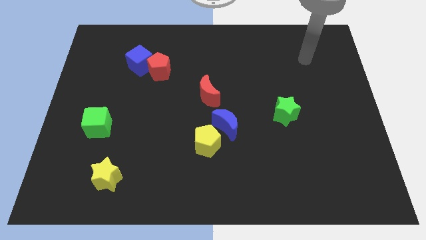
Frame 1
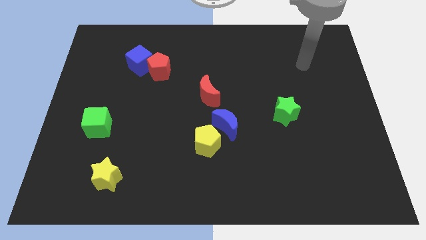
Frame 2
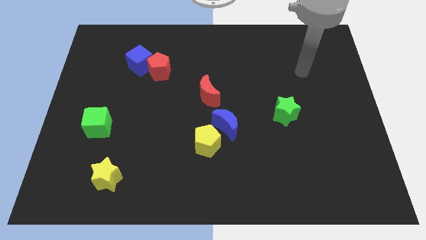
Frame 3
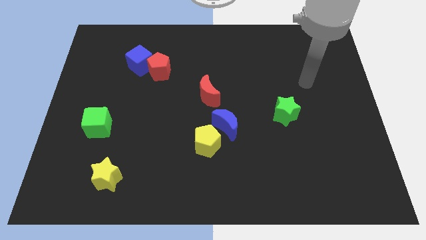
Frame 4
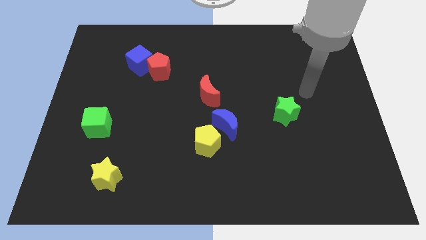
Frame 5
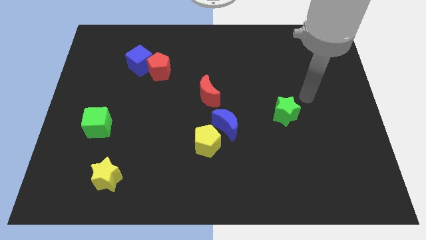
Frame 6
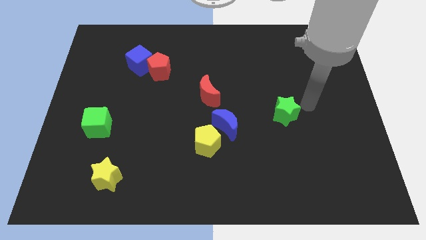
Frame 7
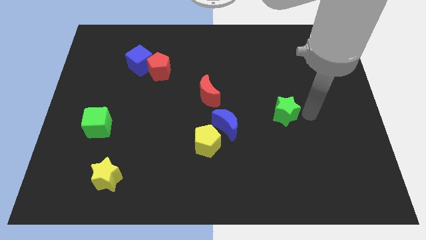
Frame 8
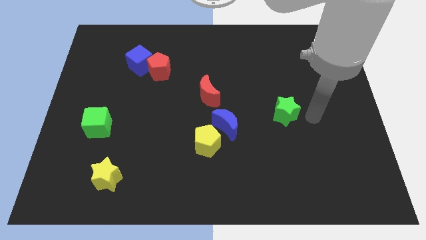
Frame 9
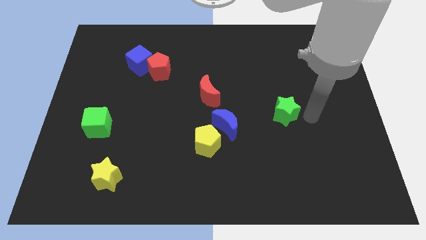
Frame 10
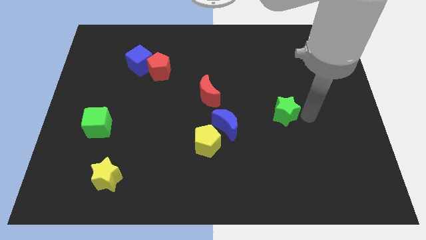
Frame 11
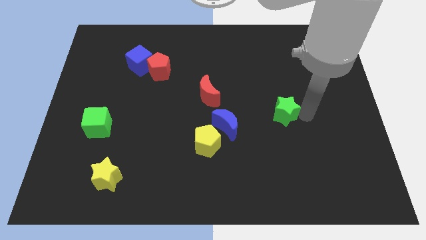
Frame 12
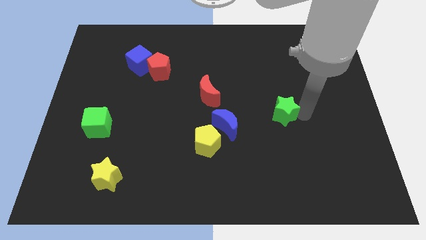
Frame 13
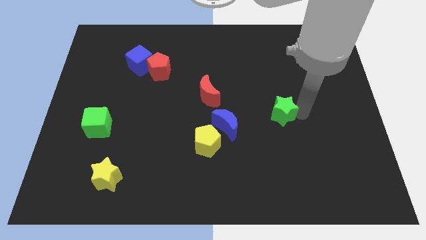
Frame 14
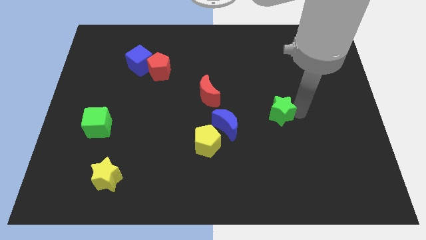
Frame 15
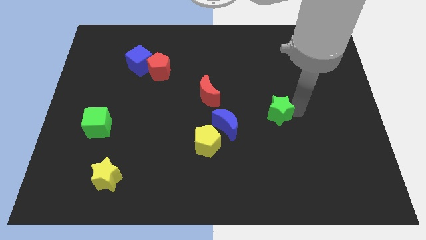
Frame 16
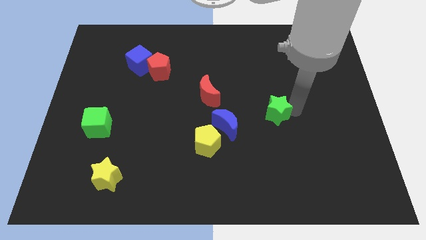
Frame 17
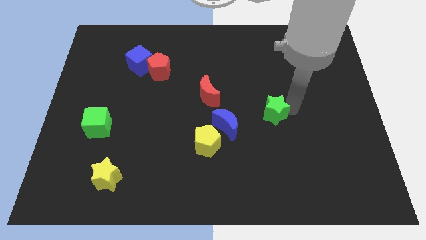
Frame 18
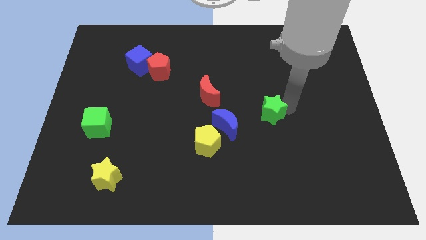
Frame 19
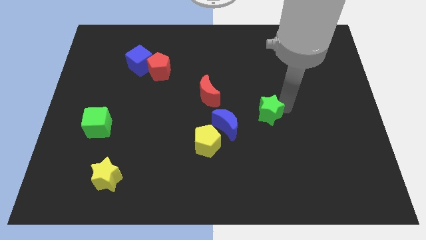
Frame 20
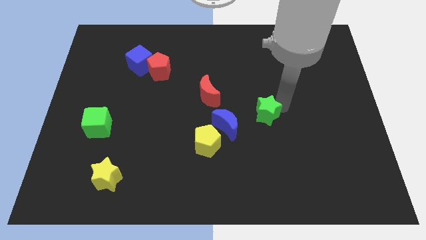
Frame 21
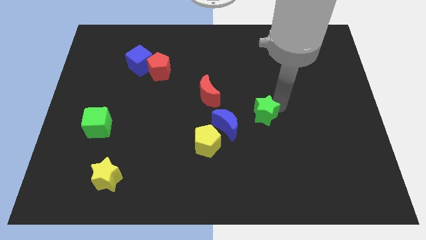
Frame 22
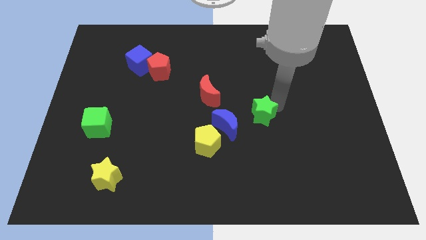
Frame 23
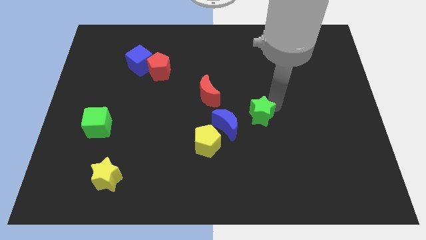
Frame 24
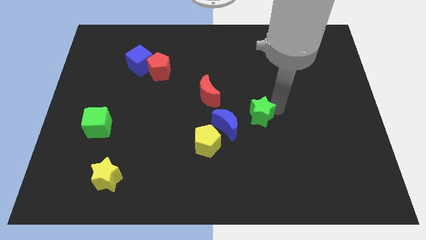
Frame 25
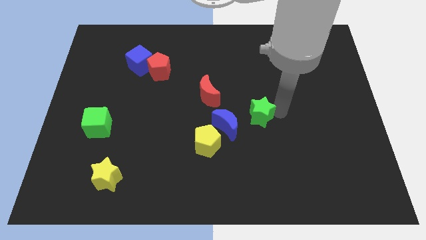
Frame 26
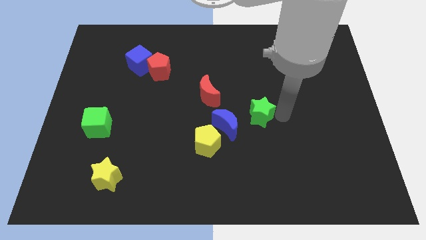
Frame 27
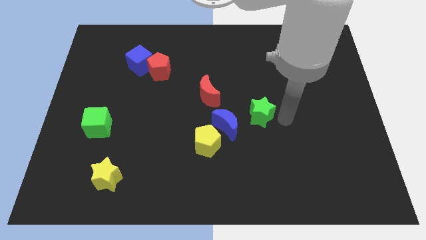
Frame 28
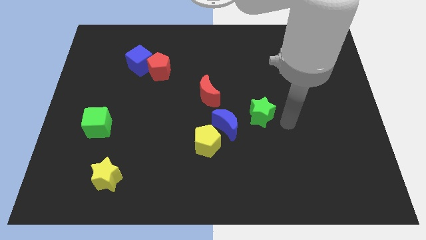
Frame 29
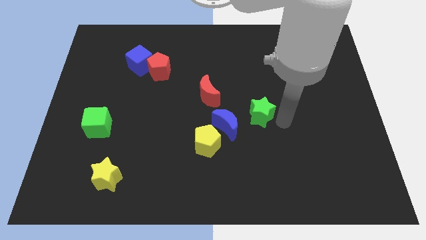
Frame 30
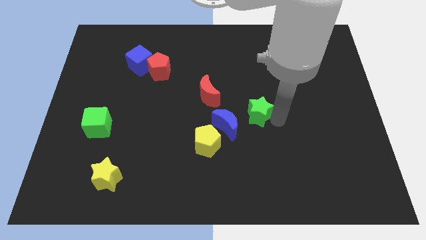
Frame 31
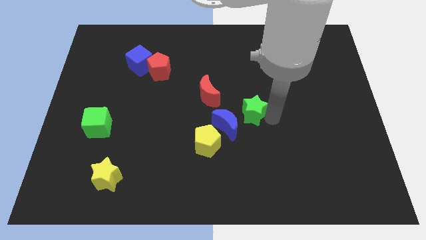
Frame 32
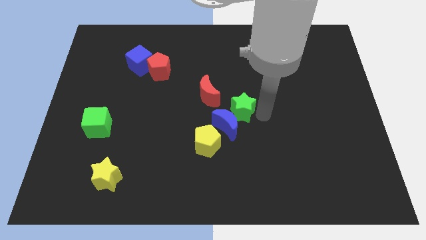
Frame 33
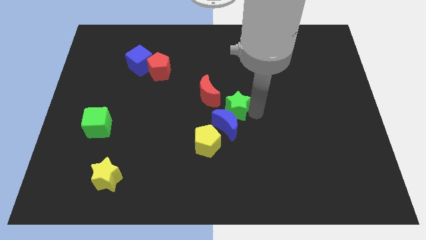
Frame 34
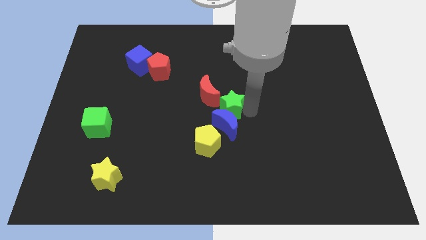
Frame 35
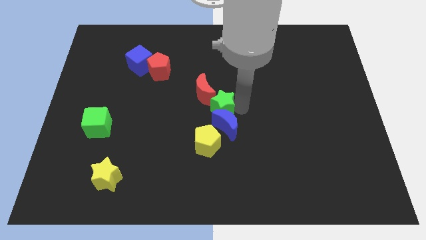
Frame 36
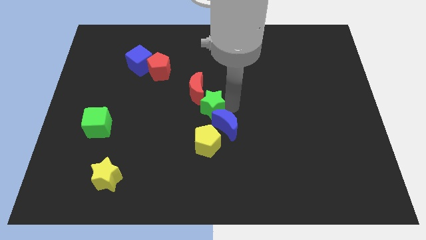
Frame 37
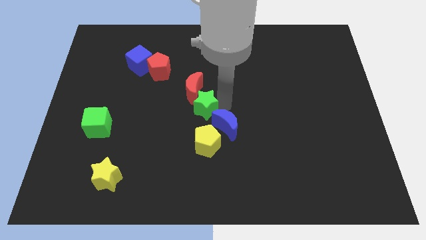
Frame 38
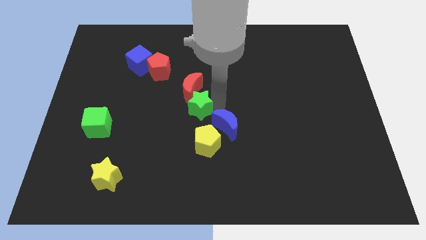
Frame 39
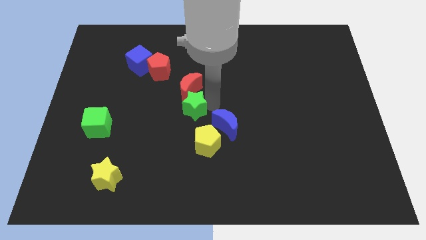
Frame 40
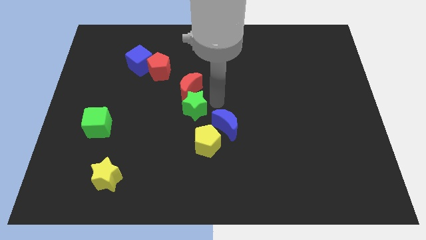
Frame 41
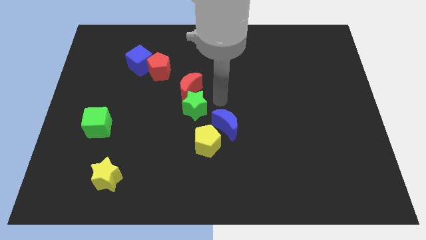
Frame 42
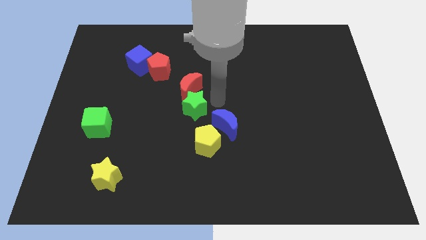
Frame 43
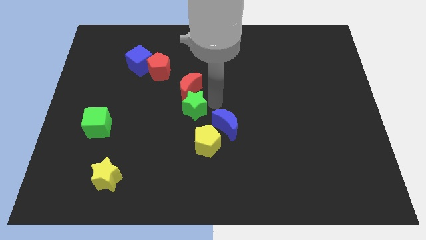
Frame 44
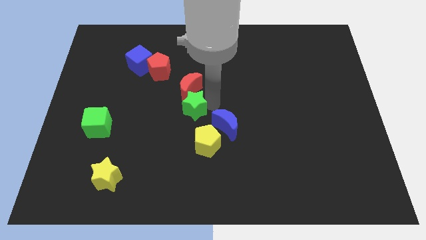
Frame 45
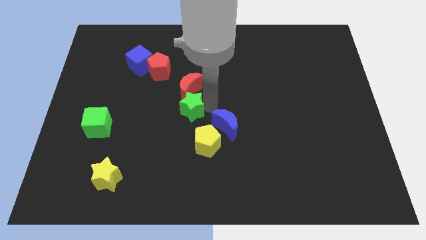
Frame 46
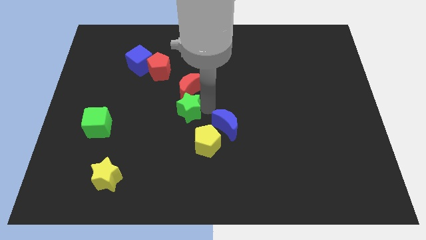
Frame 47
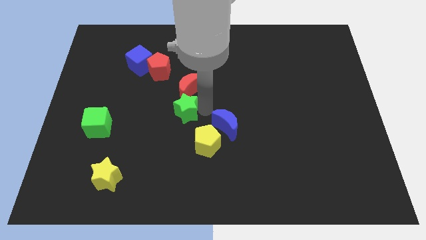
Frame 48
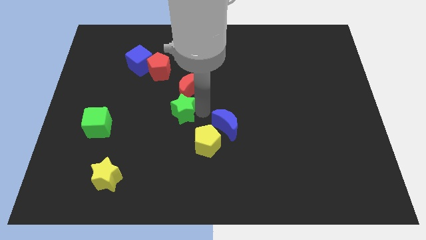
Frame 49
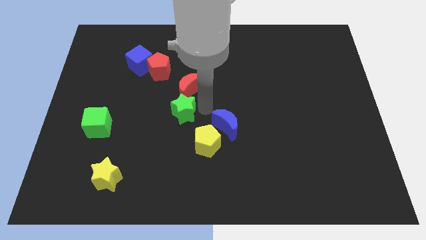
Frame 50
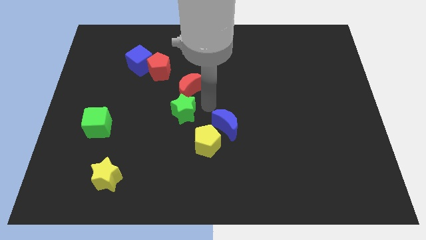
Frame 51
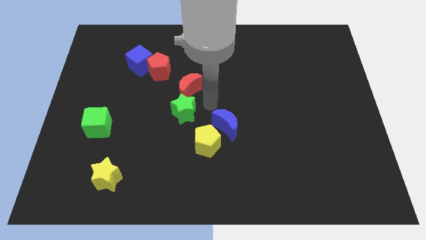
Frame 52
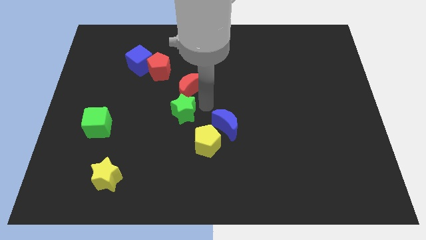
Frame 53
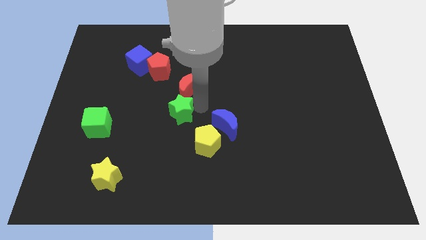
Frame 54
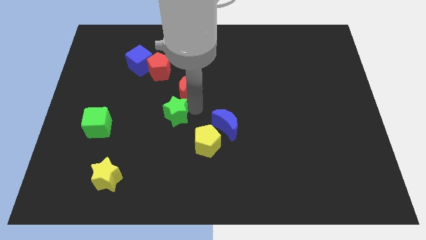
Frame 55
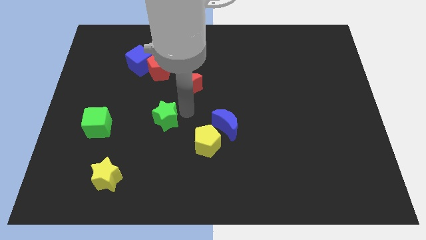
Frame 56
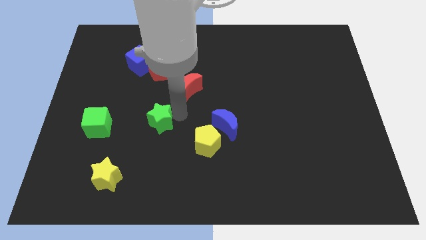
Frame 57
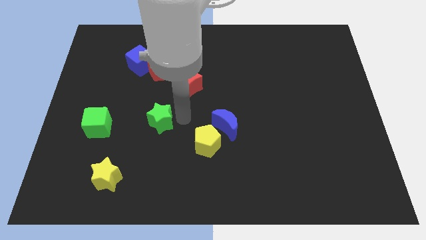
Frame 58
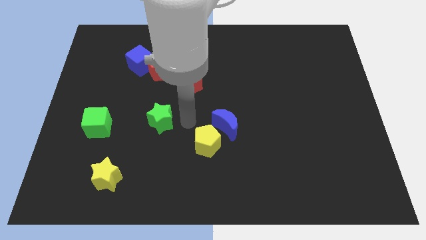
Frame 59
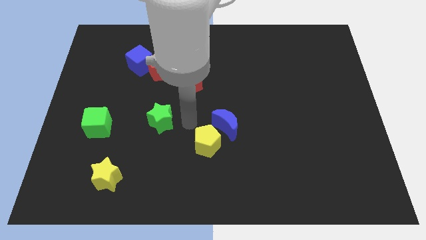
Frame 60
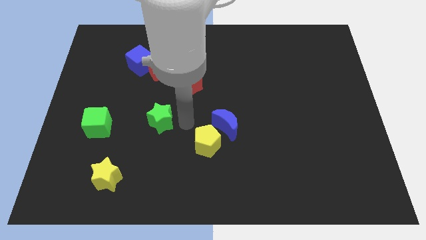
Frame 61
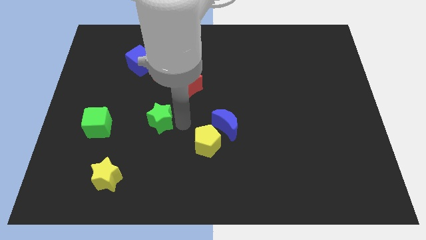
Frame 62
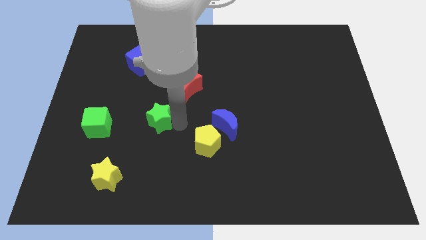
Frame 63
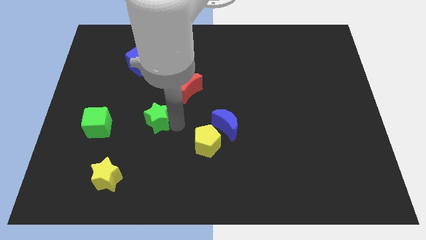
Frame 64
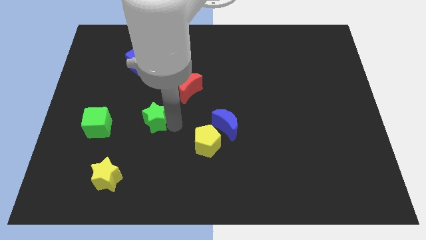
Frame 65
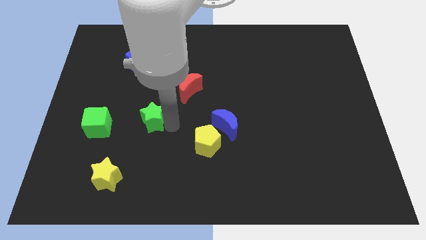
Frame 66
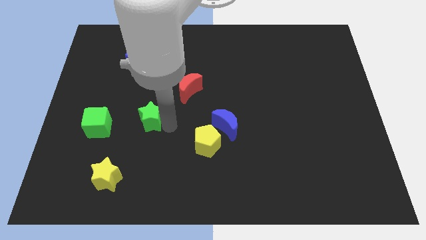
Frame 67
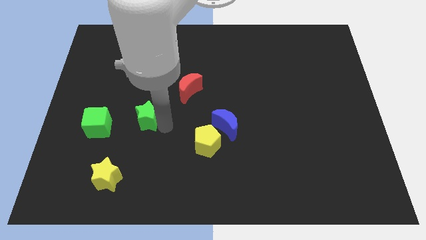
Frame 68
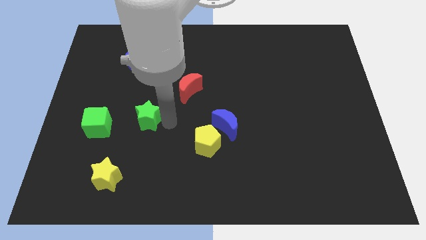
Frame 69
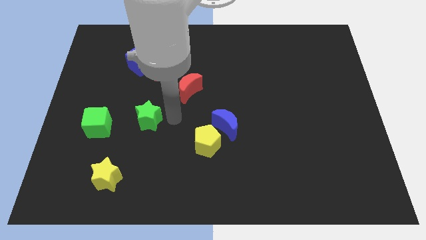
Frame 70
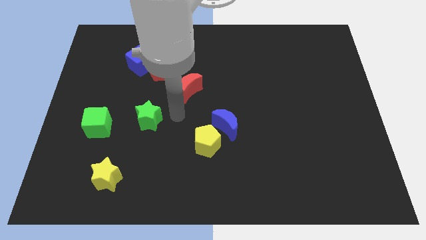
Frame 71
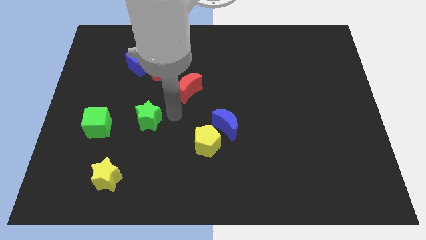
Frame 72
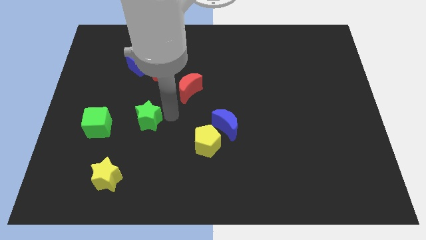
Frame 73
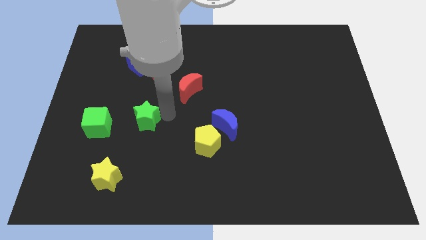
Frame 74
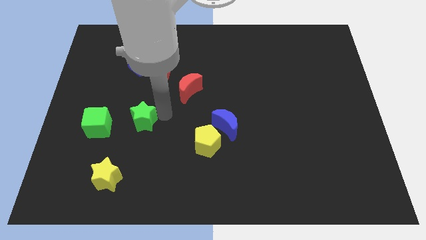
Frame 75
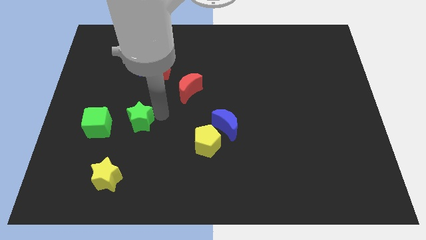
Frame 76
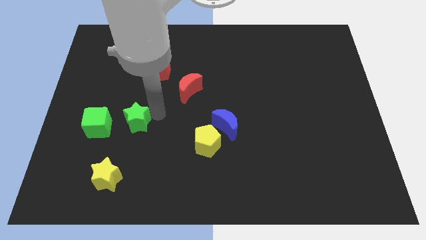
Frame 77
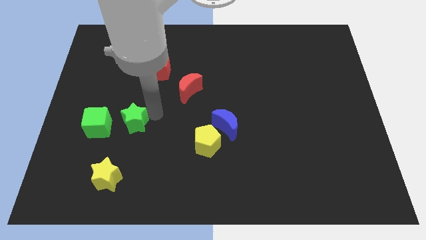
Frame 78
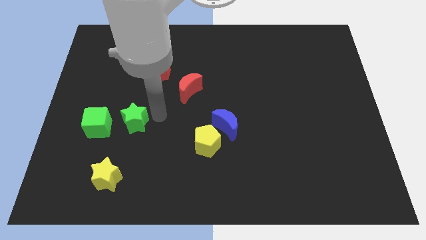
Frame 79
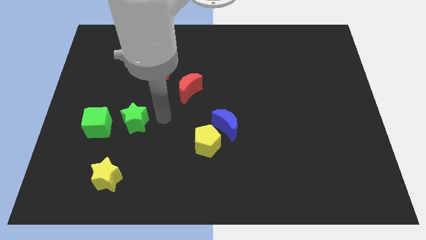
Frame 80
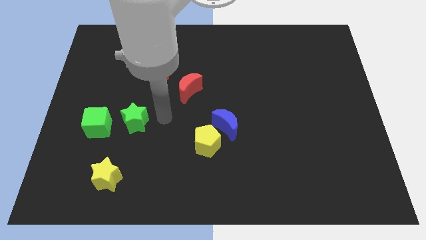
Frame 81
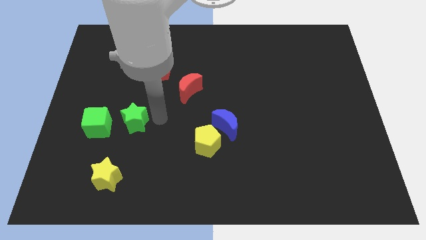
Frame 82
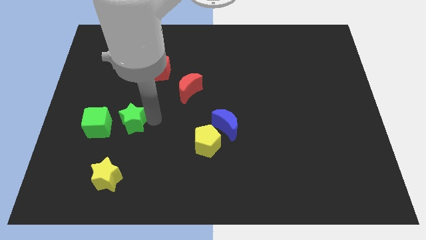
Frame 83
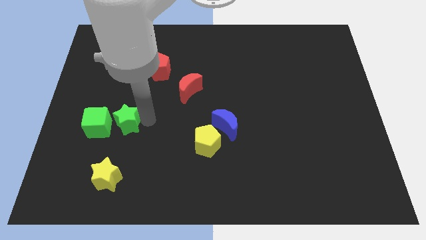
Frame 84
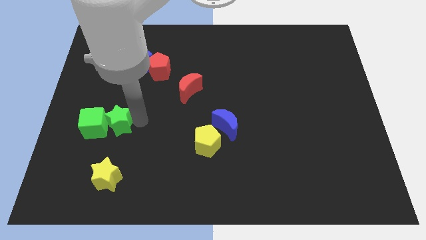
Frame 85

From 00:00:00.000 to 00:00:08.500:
push the green star close to the green cube
